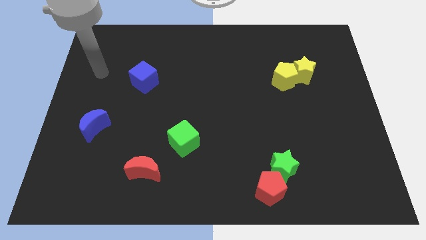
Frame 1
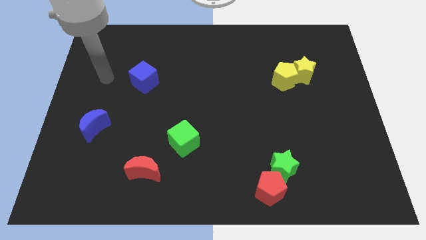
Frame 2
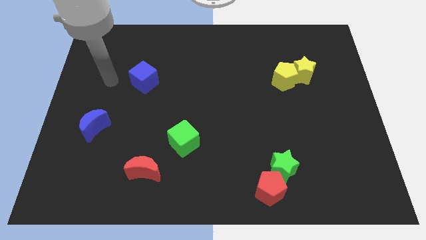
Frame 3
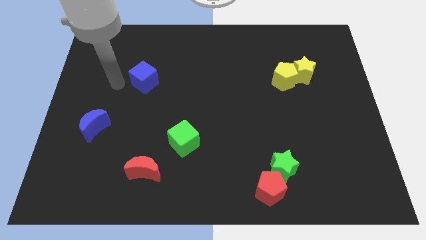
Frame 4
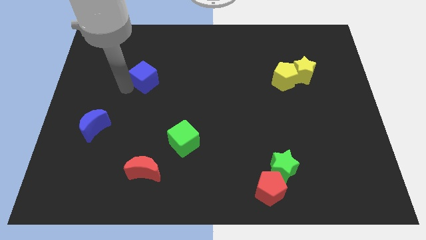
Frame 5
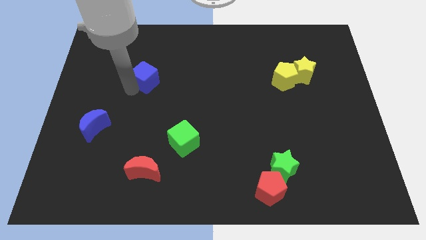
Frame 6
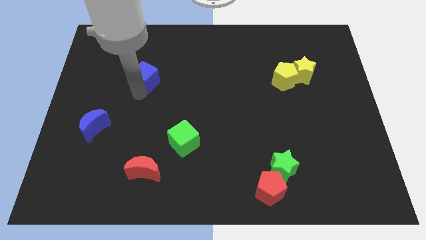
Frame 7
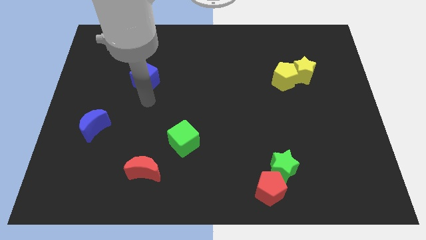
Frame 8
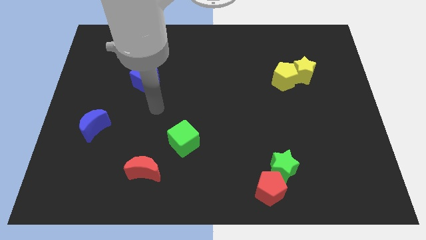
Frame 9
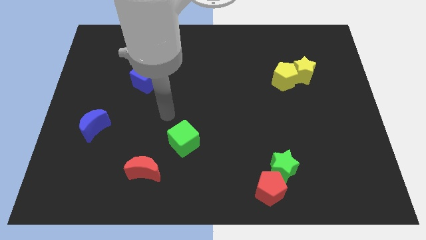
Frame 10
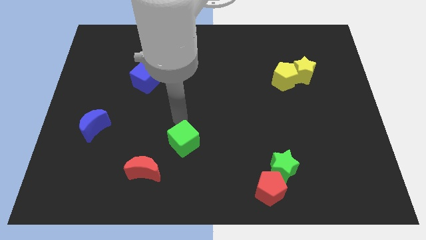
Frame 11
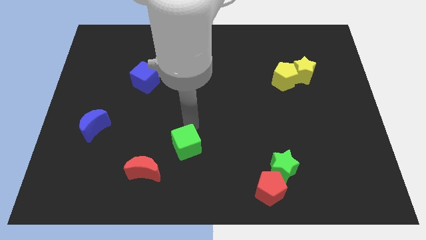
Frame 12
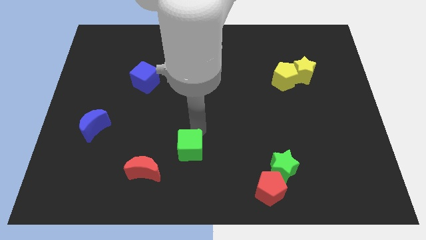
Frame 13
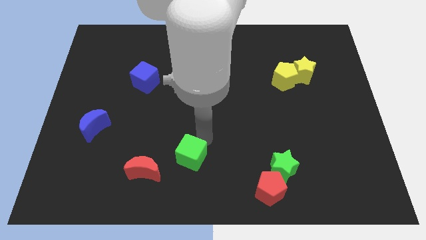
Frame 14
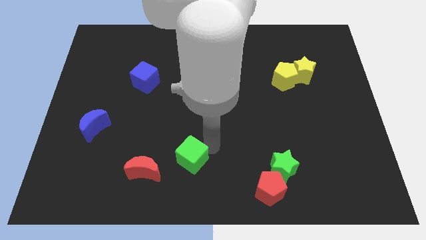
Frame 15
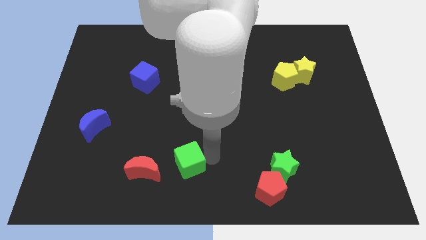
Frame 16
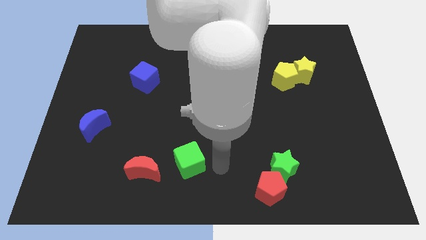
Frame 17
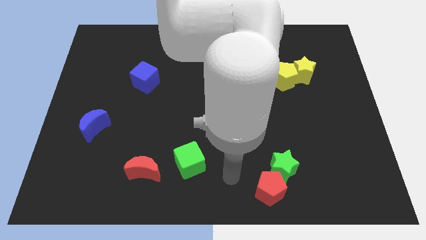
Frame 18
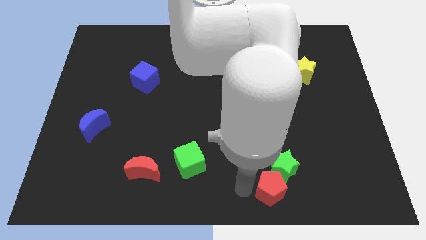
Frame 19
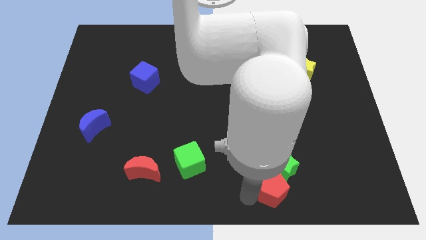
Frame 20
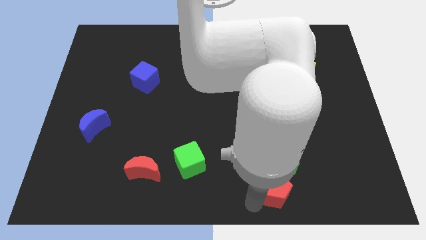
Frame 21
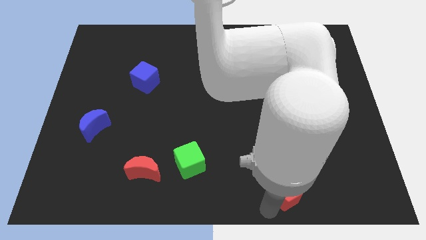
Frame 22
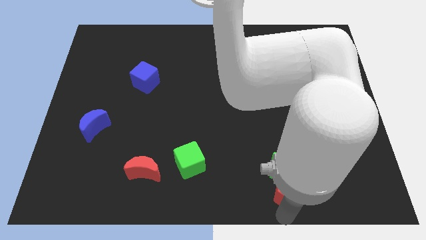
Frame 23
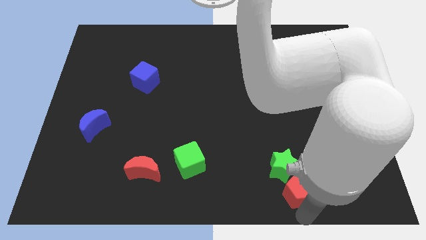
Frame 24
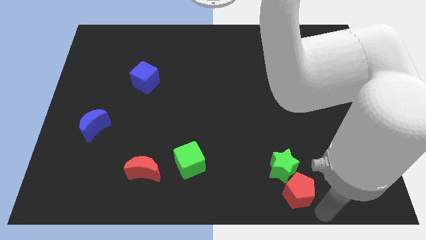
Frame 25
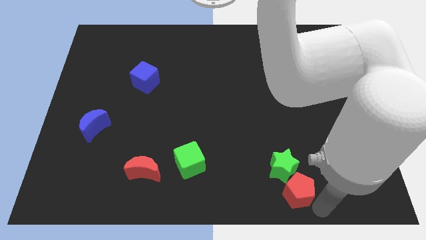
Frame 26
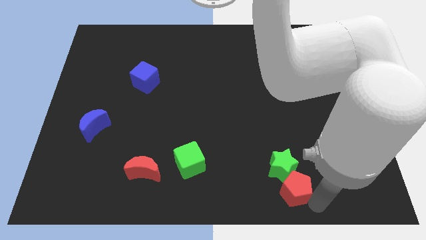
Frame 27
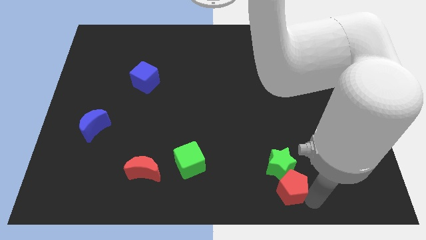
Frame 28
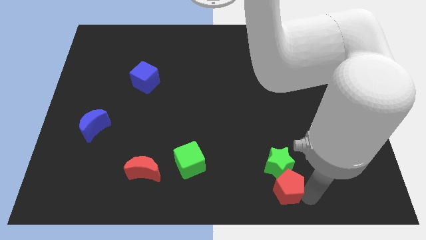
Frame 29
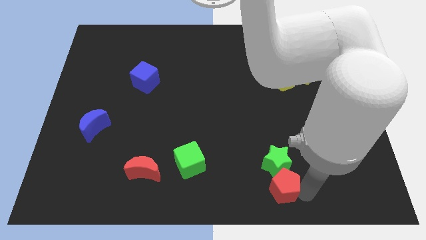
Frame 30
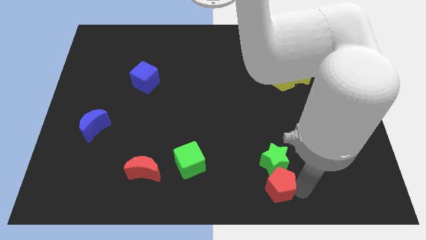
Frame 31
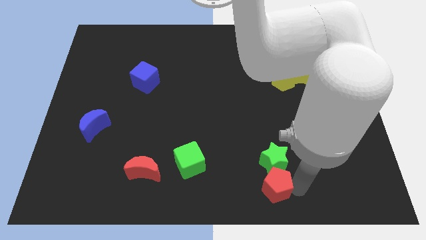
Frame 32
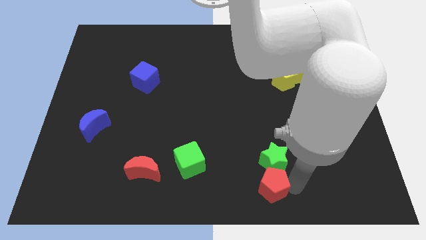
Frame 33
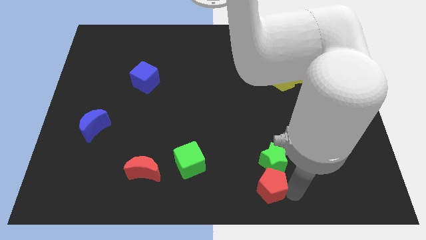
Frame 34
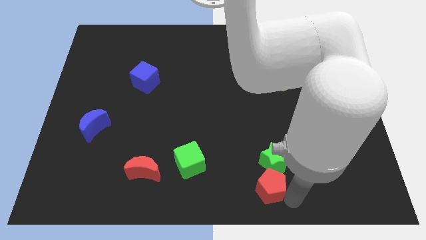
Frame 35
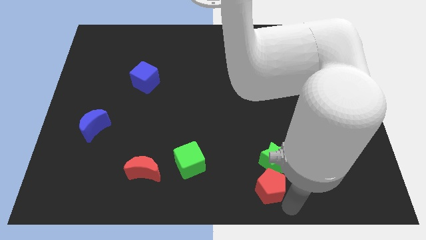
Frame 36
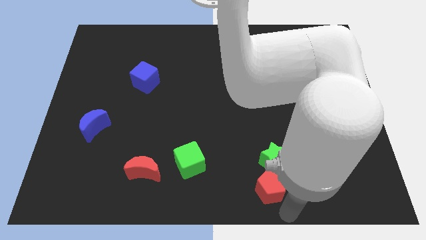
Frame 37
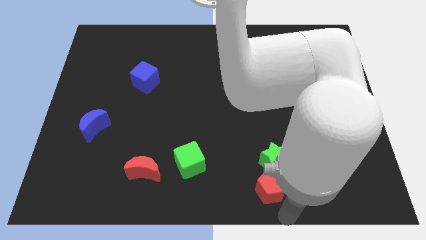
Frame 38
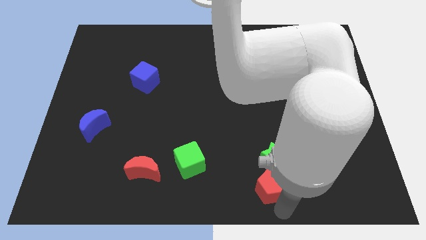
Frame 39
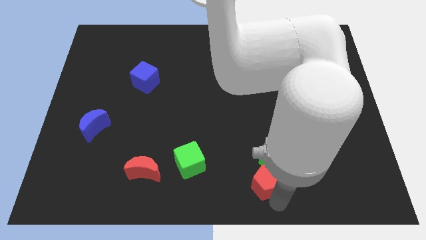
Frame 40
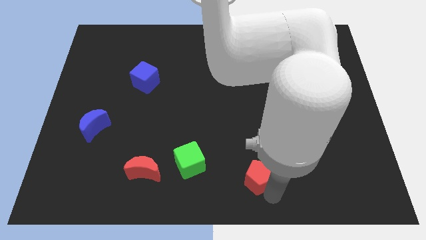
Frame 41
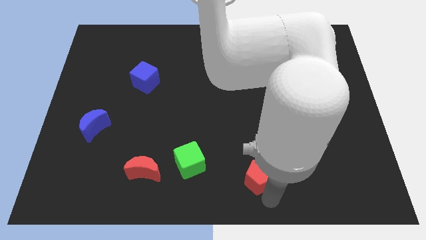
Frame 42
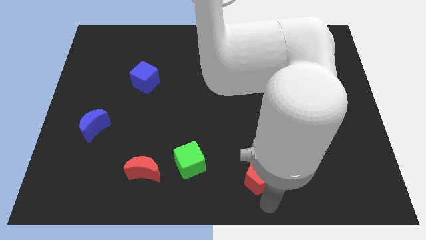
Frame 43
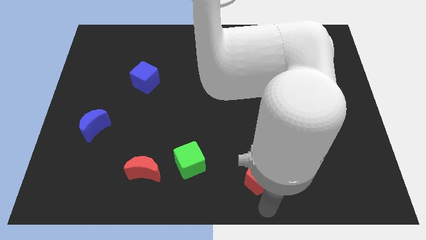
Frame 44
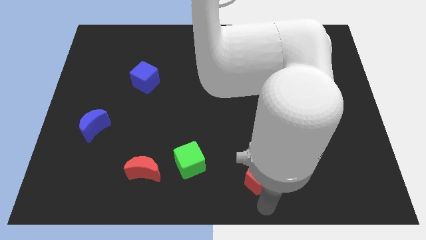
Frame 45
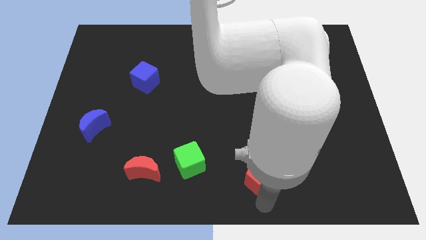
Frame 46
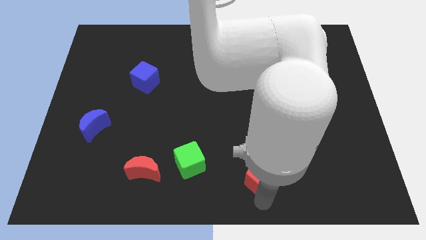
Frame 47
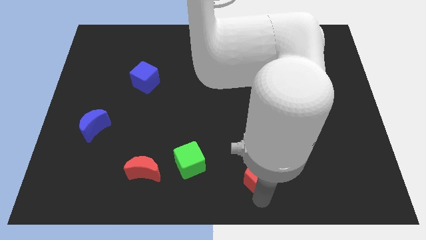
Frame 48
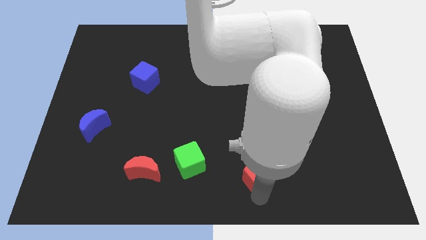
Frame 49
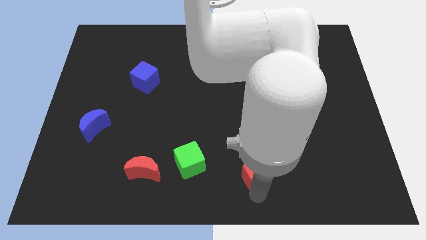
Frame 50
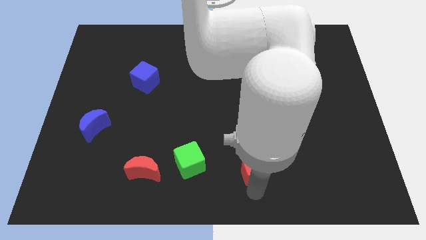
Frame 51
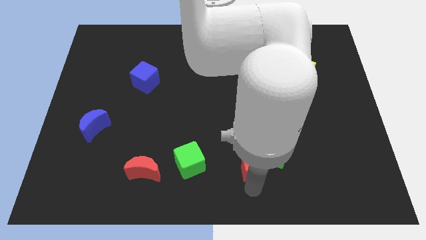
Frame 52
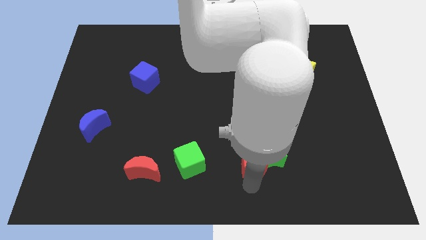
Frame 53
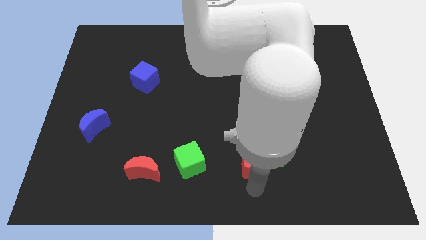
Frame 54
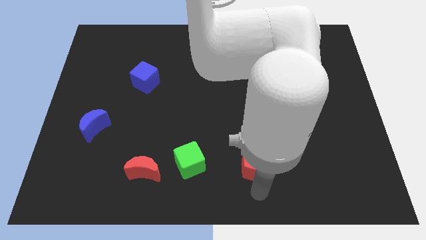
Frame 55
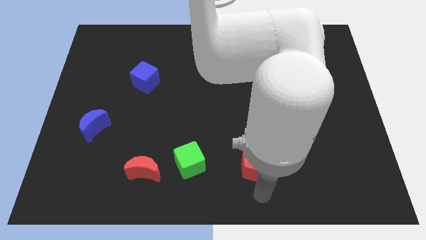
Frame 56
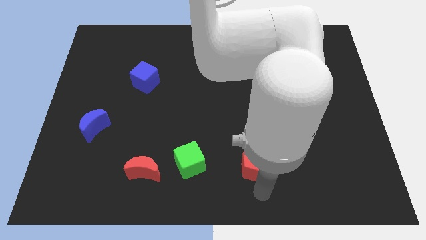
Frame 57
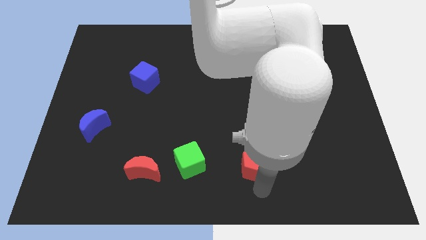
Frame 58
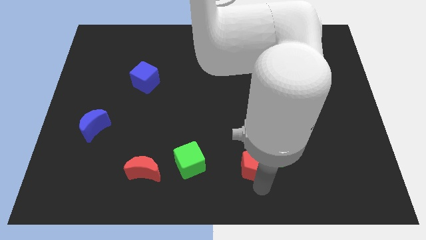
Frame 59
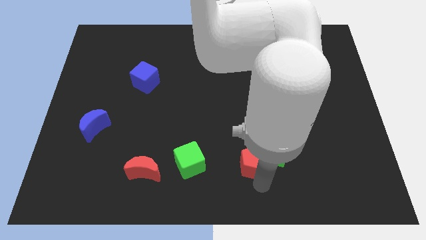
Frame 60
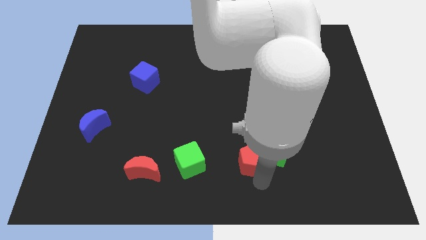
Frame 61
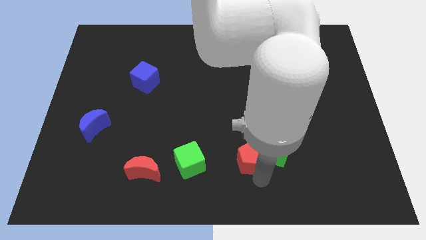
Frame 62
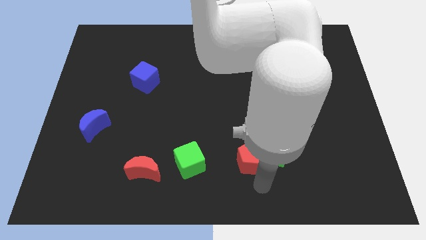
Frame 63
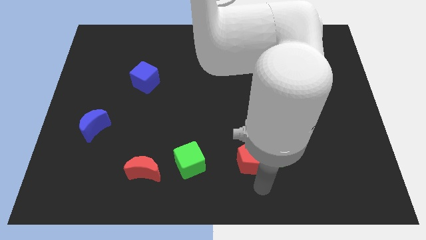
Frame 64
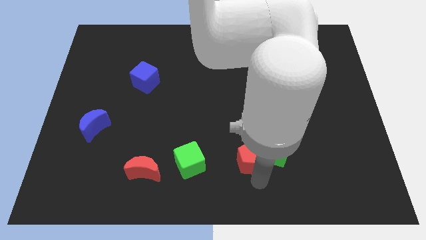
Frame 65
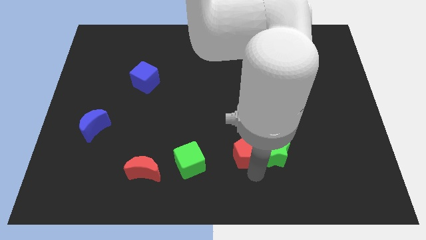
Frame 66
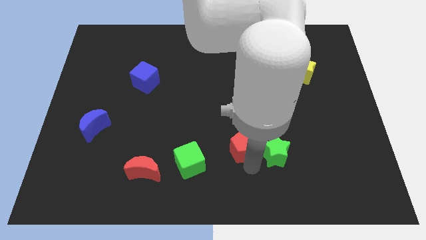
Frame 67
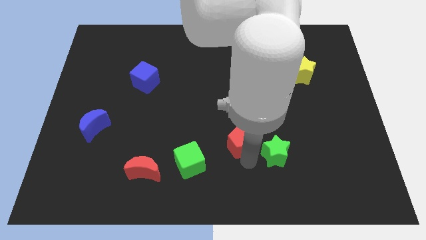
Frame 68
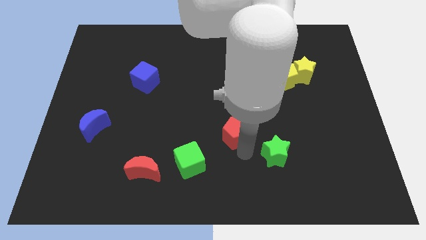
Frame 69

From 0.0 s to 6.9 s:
slide the red pentagon to the center
